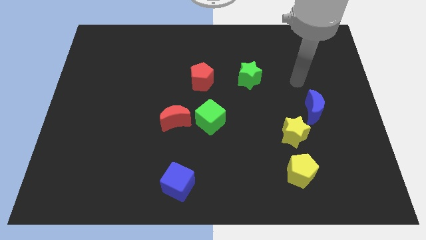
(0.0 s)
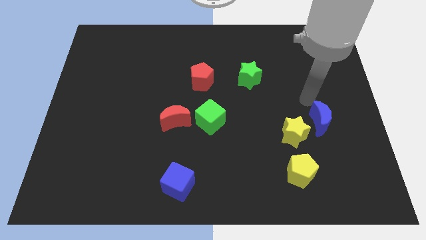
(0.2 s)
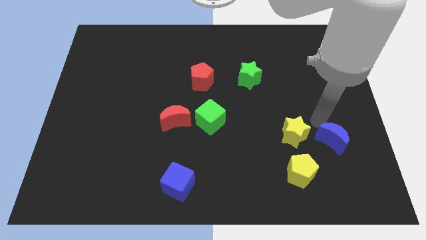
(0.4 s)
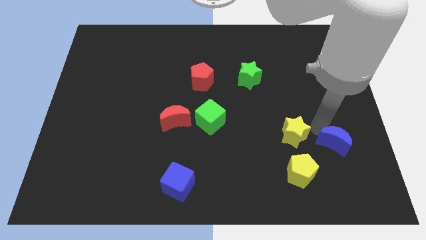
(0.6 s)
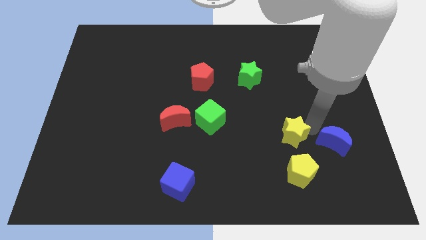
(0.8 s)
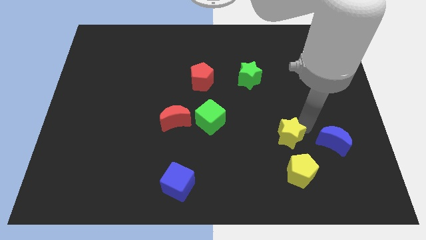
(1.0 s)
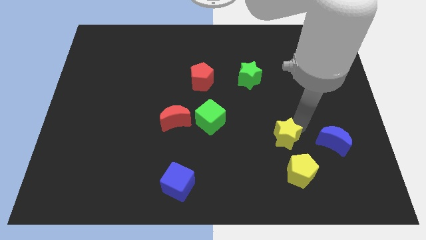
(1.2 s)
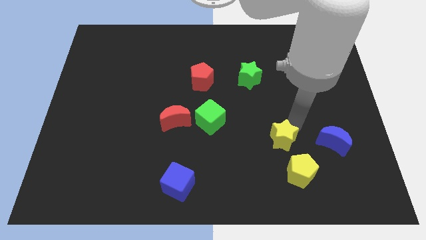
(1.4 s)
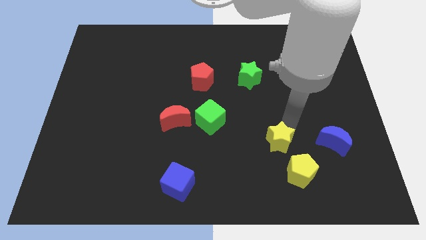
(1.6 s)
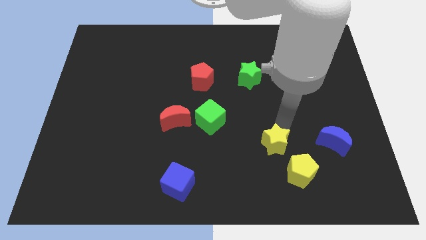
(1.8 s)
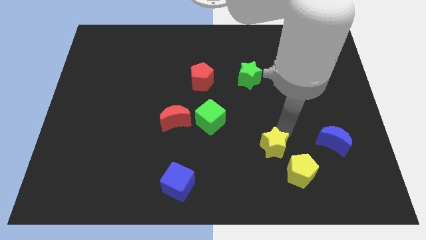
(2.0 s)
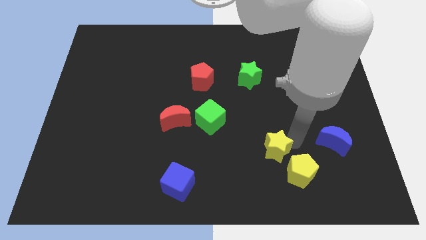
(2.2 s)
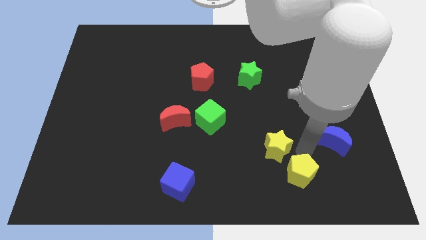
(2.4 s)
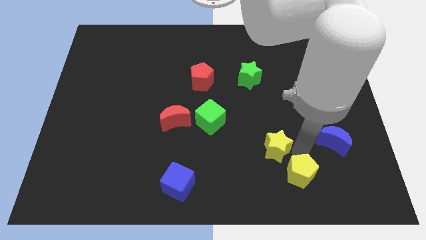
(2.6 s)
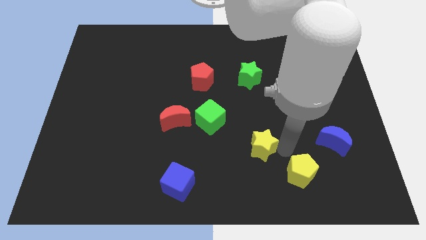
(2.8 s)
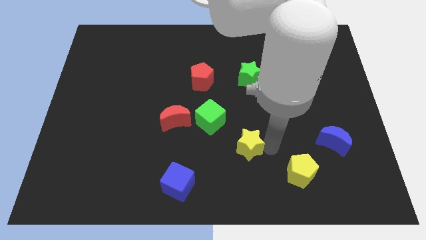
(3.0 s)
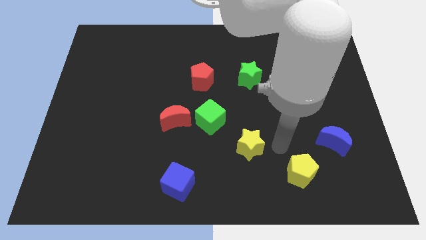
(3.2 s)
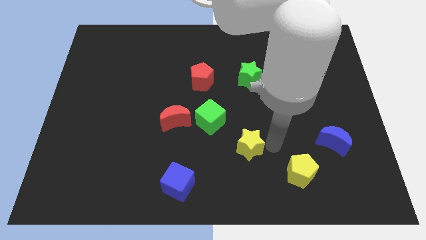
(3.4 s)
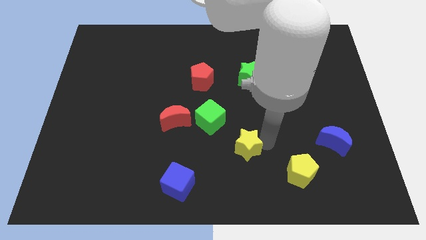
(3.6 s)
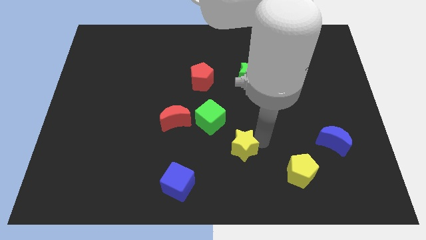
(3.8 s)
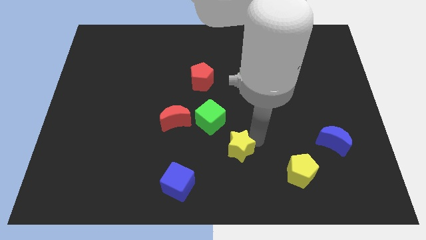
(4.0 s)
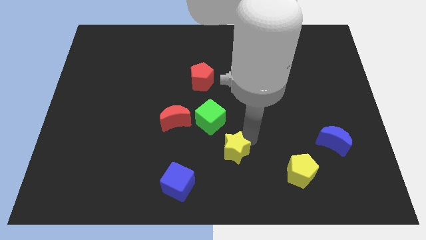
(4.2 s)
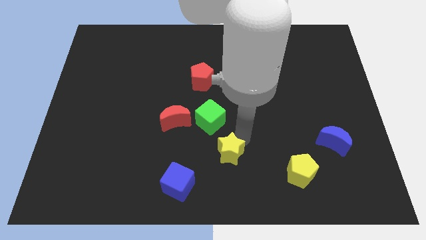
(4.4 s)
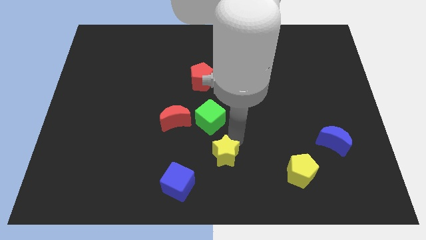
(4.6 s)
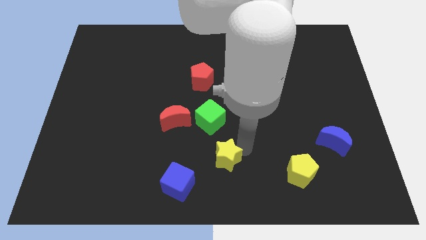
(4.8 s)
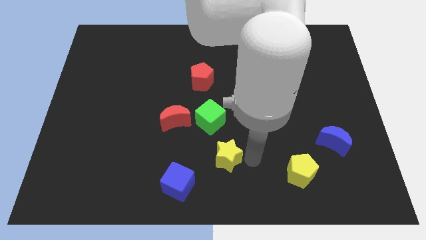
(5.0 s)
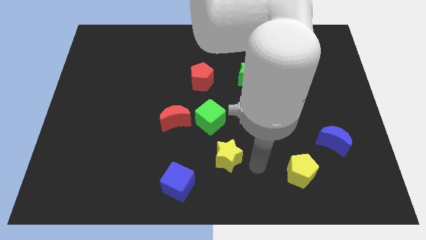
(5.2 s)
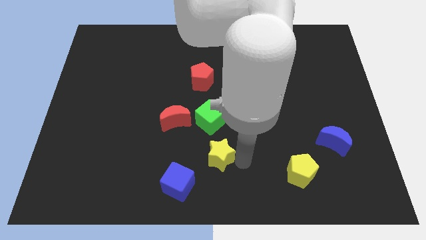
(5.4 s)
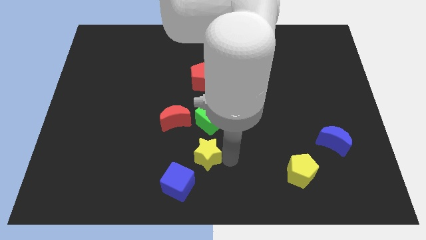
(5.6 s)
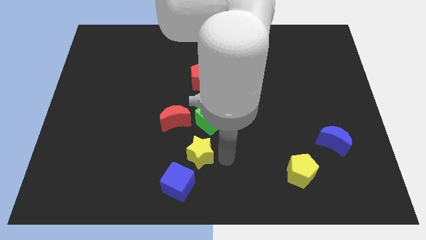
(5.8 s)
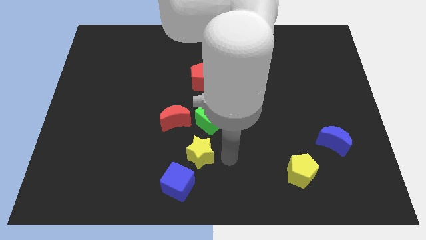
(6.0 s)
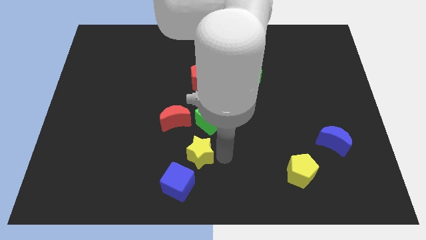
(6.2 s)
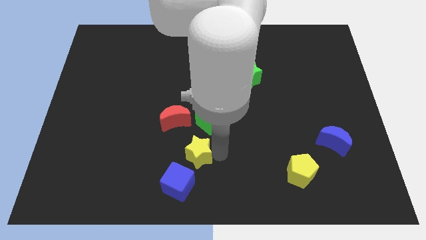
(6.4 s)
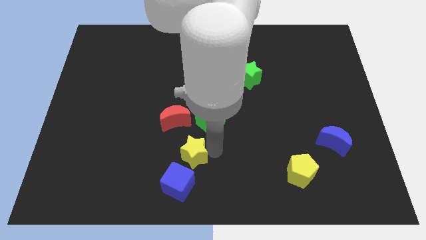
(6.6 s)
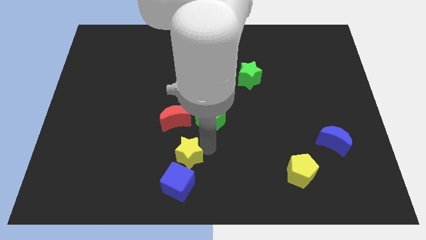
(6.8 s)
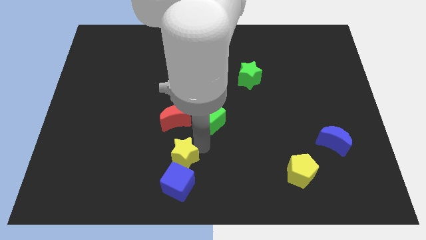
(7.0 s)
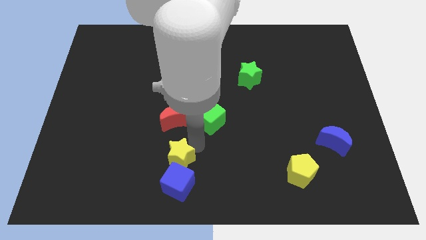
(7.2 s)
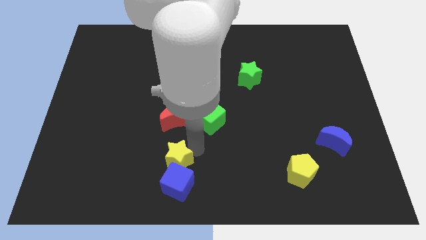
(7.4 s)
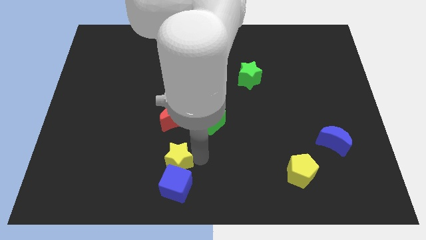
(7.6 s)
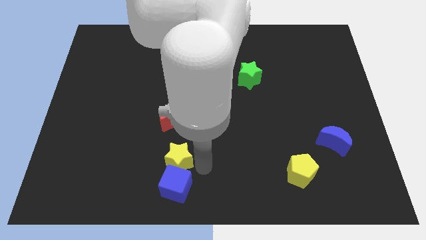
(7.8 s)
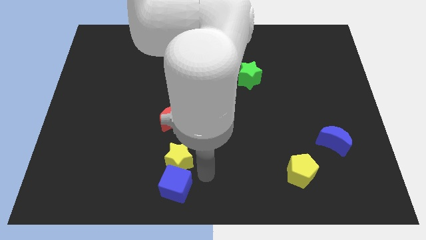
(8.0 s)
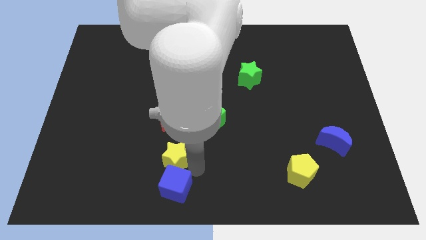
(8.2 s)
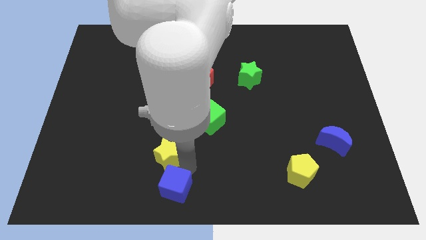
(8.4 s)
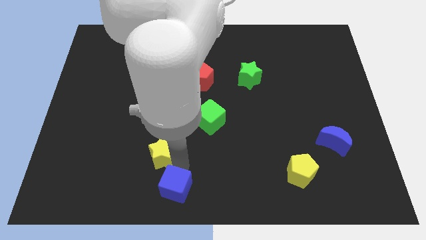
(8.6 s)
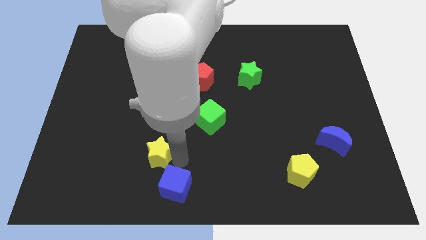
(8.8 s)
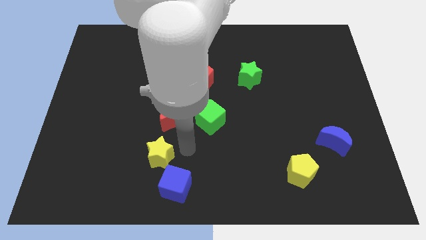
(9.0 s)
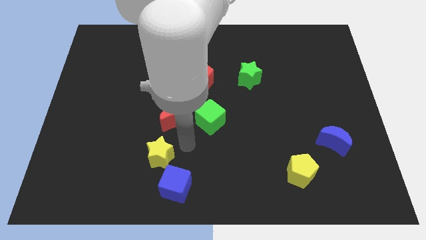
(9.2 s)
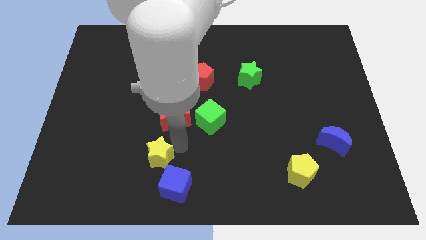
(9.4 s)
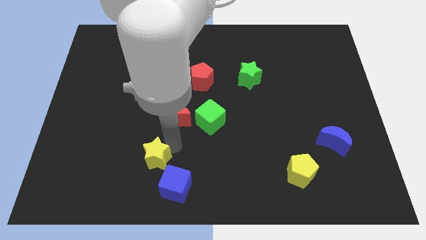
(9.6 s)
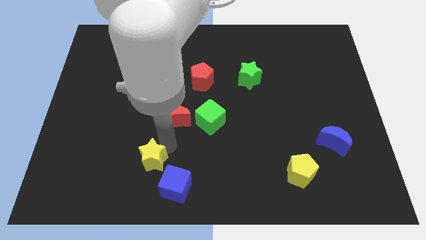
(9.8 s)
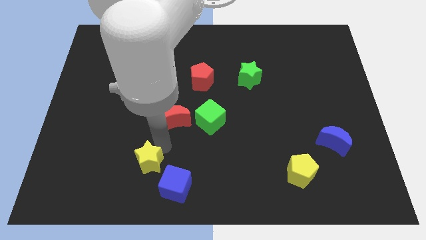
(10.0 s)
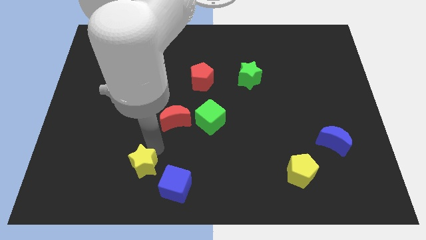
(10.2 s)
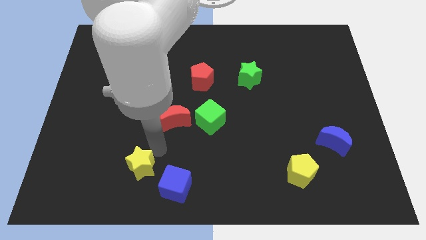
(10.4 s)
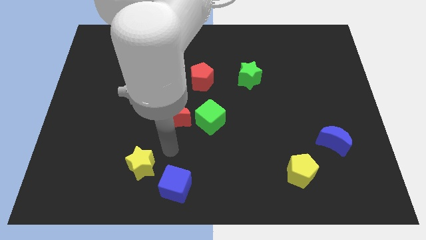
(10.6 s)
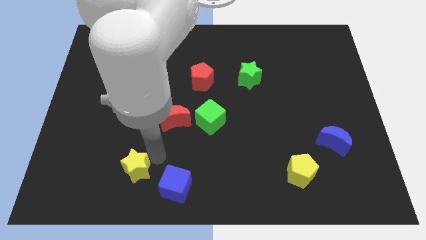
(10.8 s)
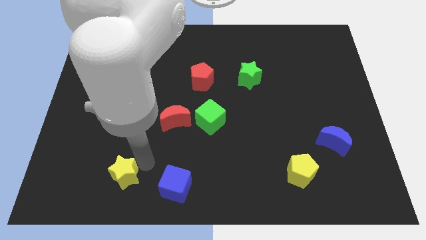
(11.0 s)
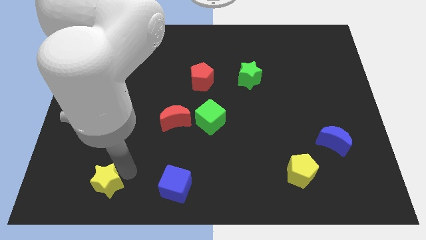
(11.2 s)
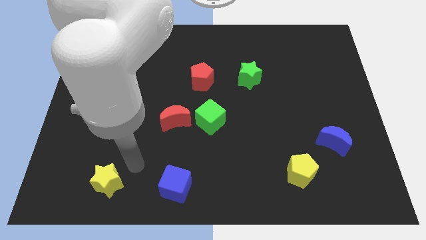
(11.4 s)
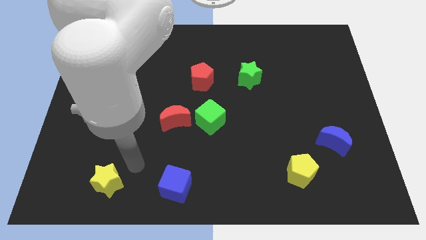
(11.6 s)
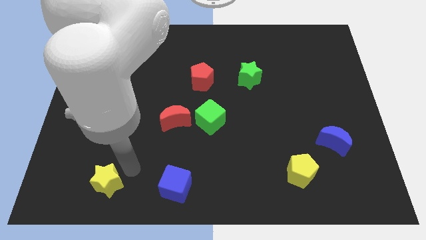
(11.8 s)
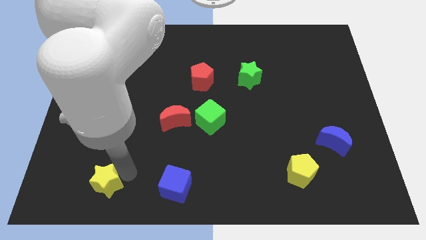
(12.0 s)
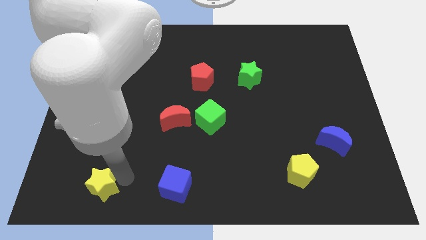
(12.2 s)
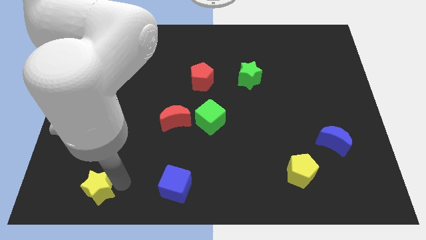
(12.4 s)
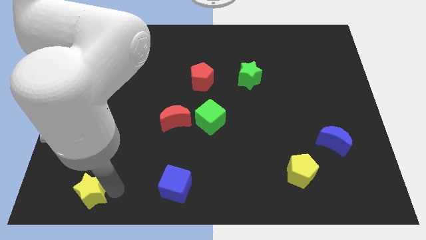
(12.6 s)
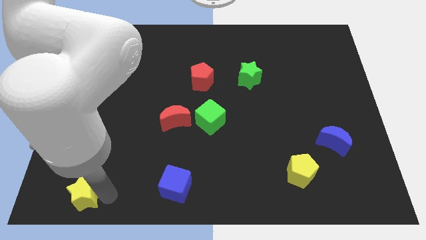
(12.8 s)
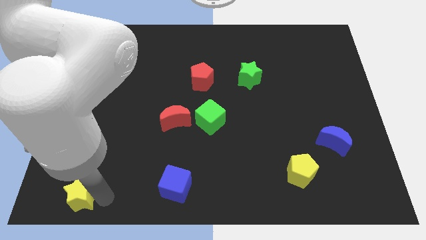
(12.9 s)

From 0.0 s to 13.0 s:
put the yellow star to the bottom left corner
